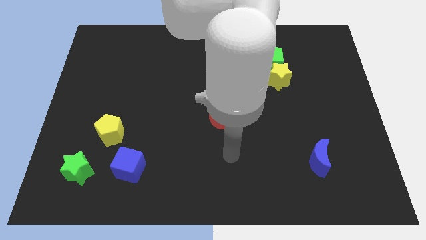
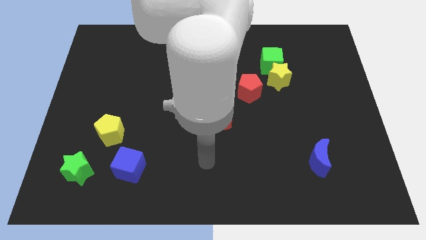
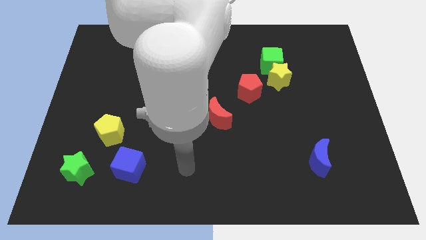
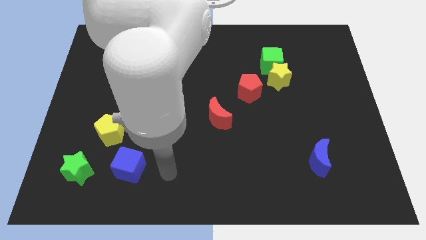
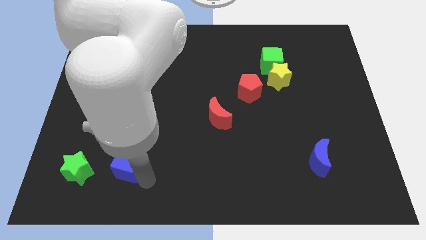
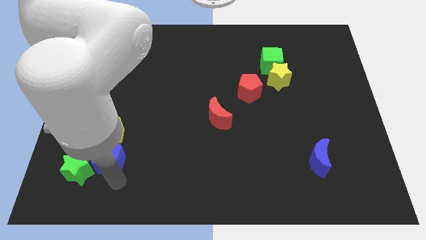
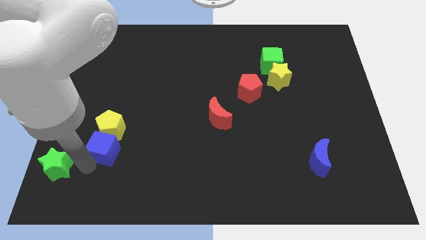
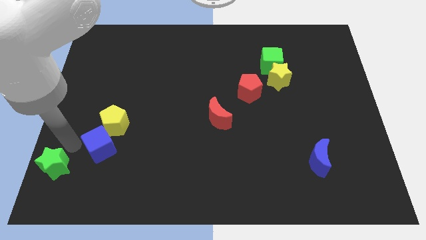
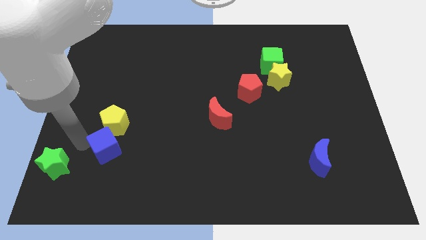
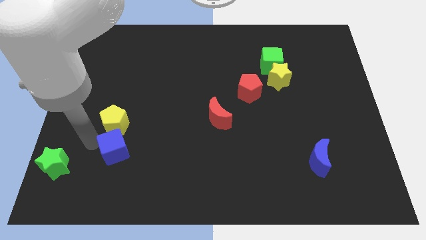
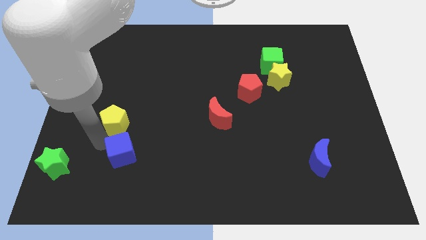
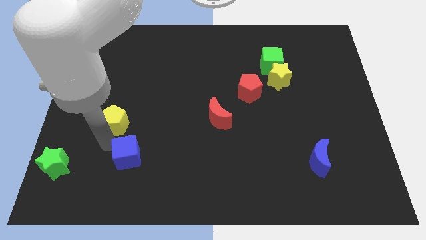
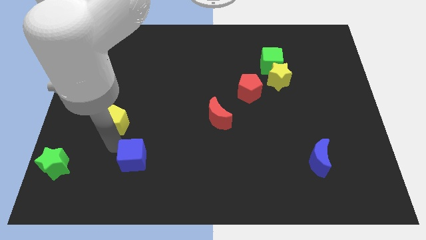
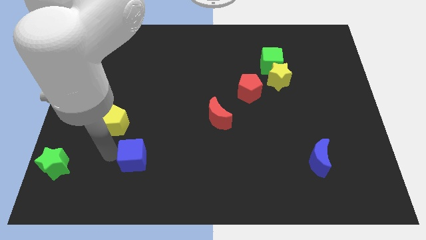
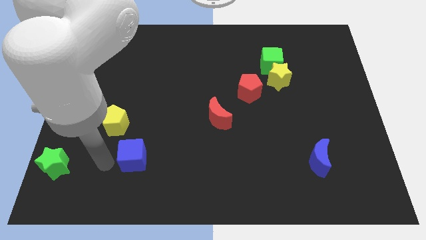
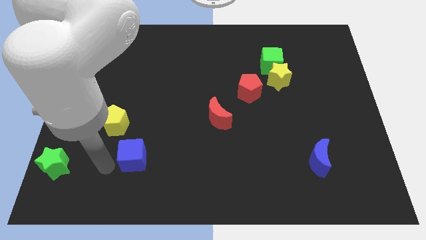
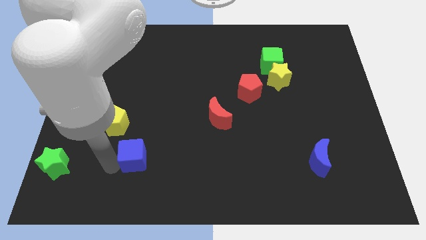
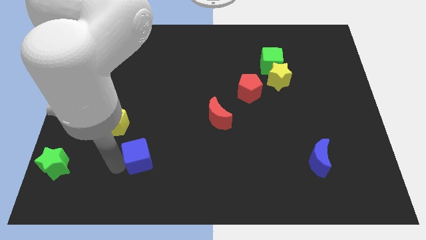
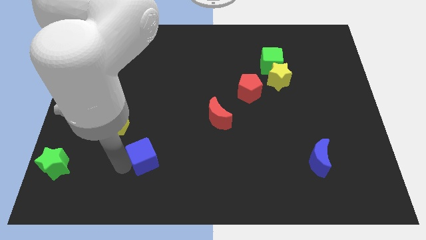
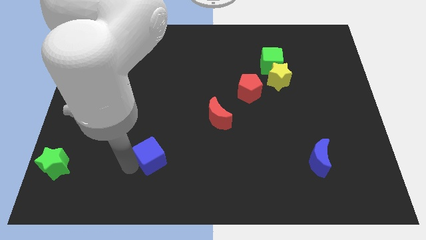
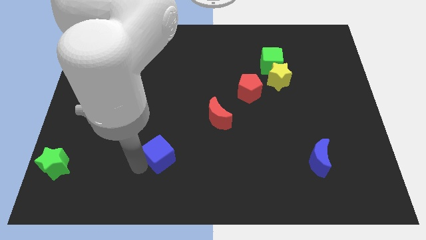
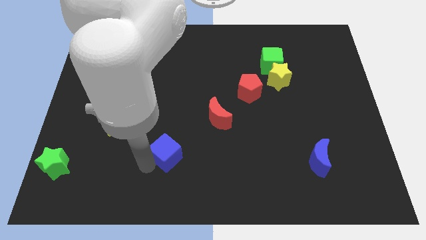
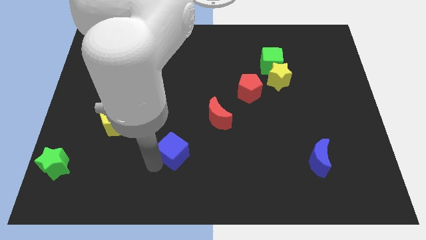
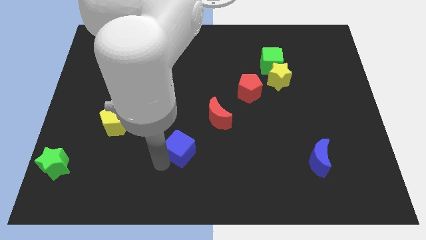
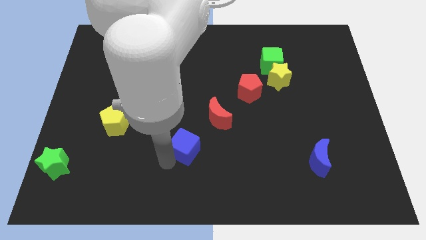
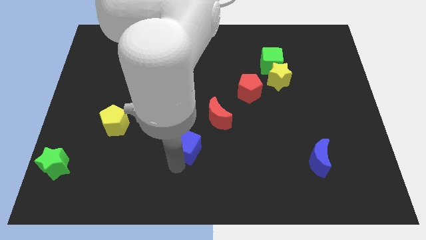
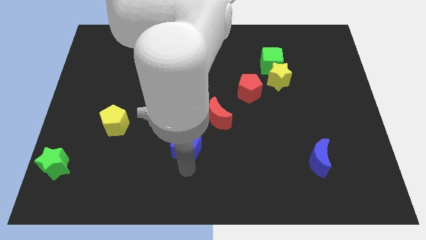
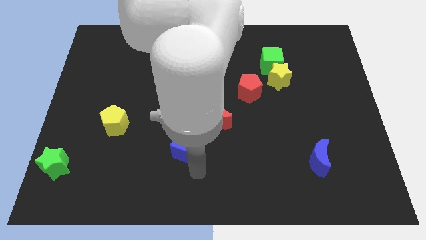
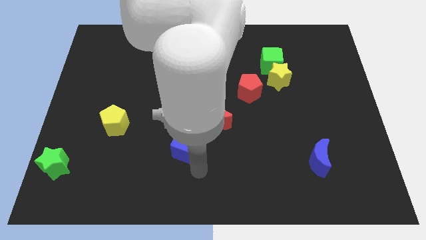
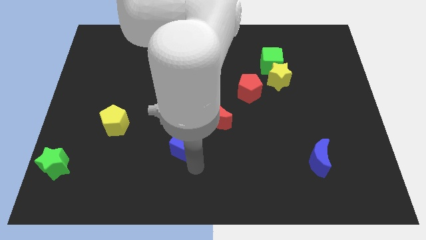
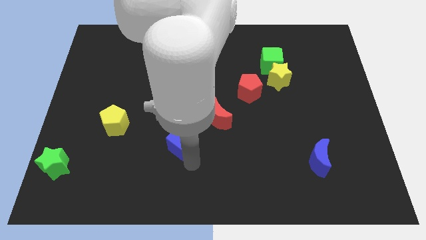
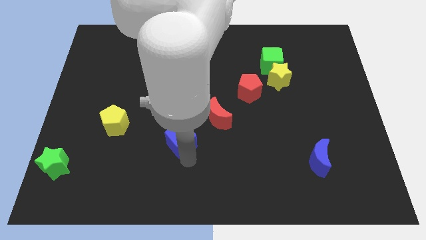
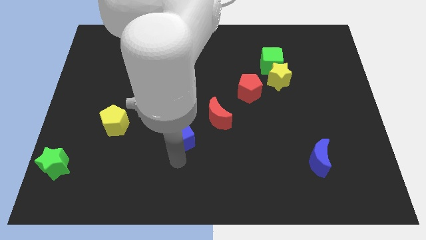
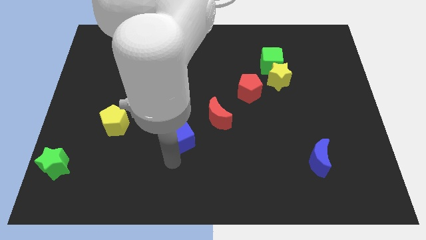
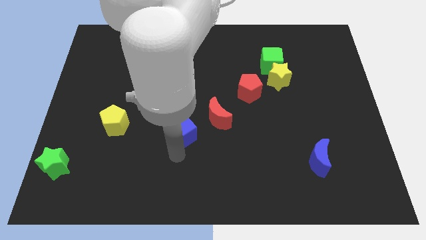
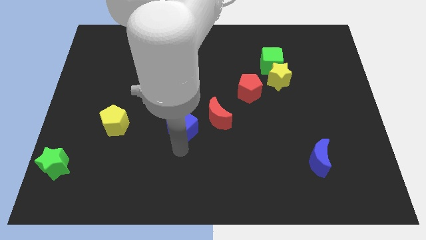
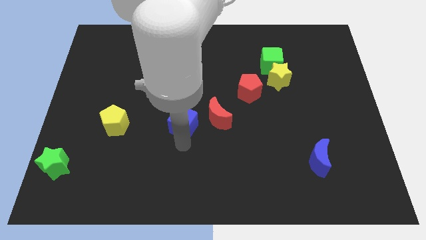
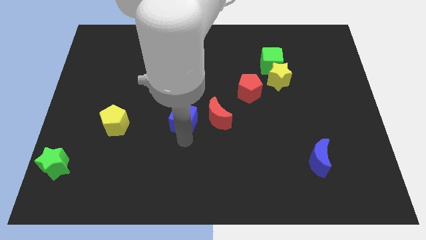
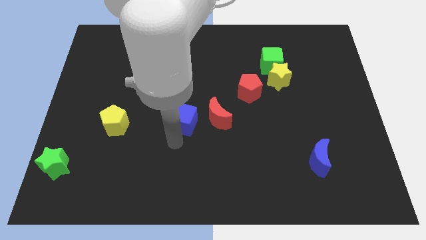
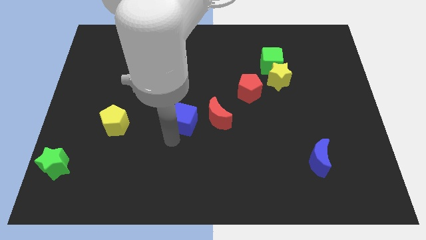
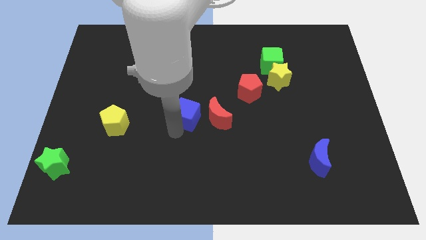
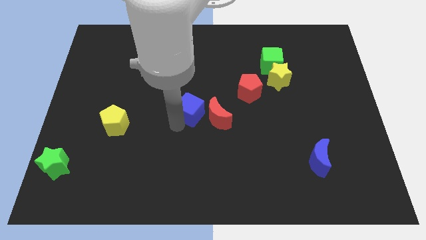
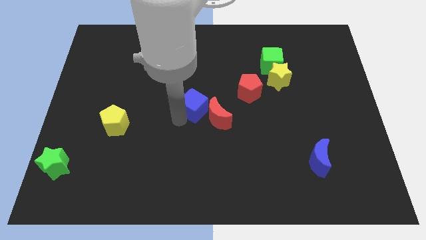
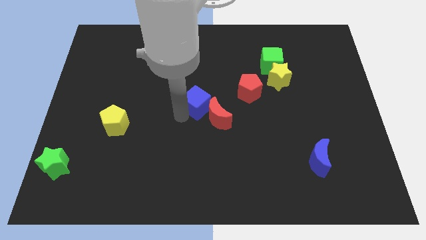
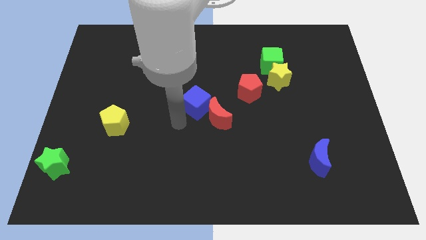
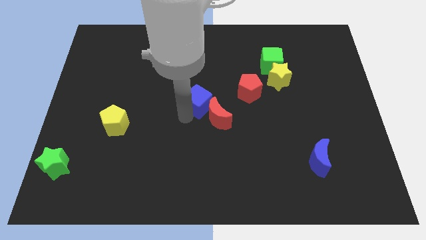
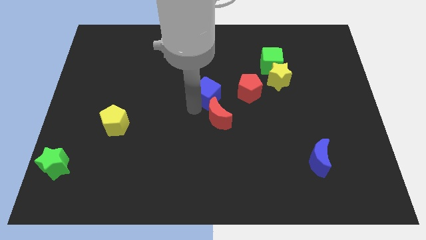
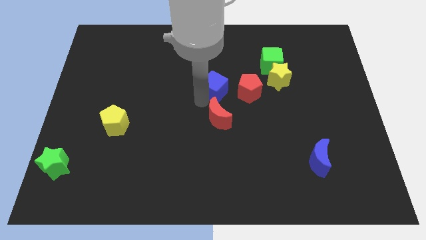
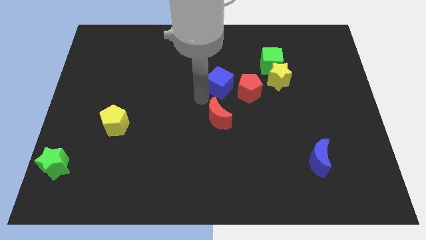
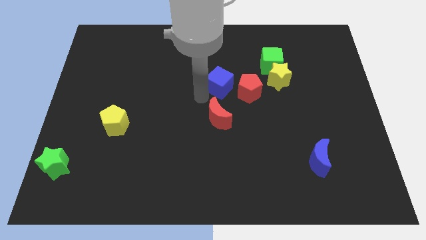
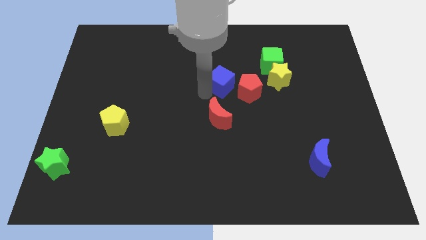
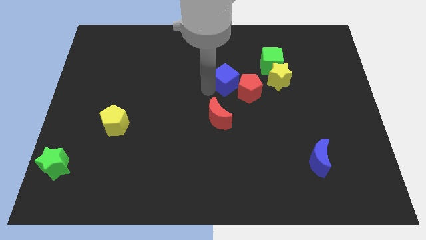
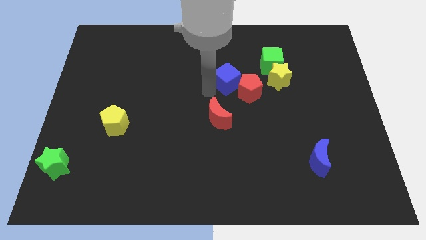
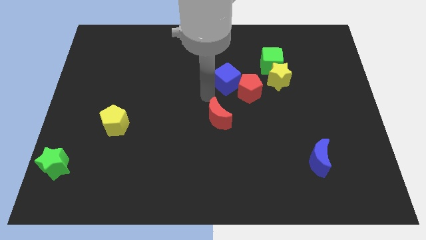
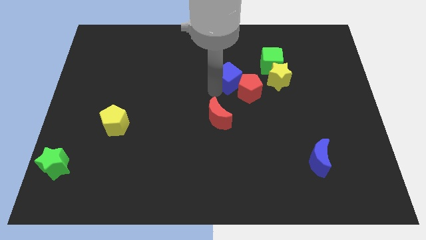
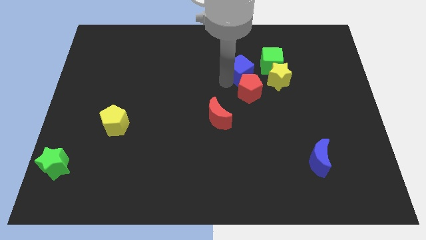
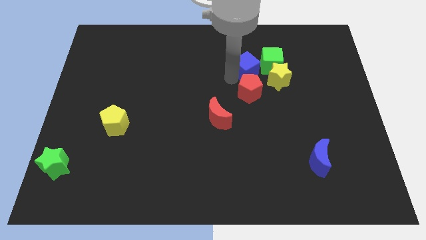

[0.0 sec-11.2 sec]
push the blue cube diagonally up and to the left of the yellow star

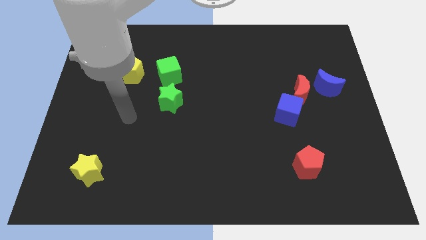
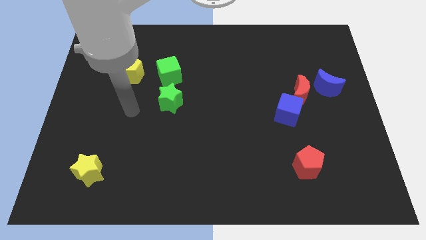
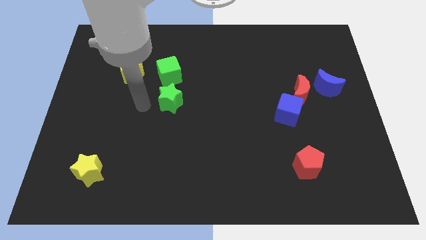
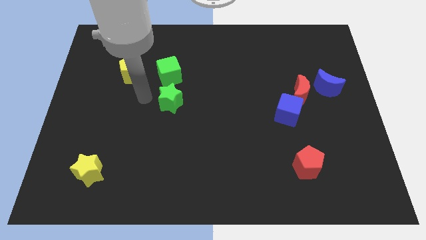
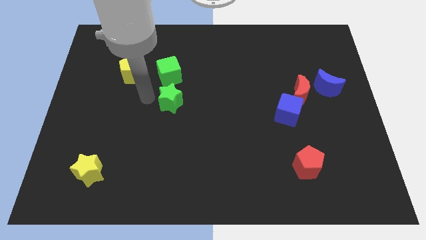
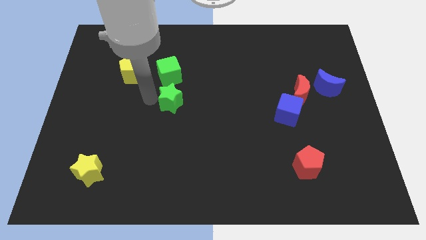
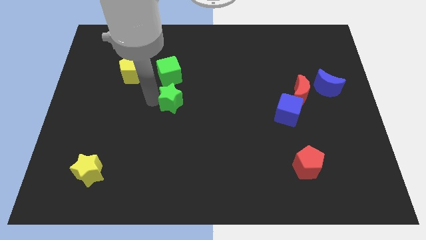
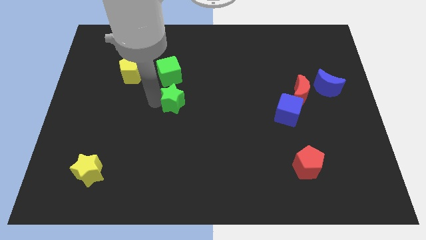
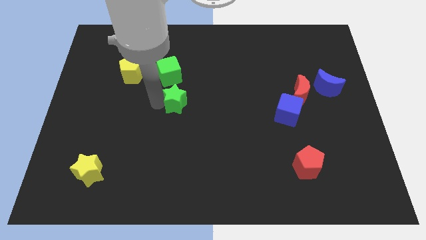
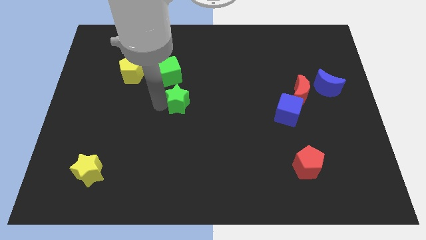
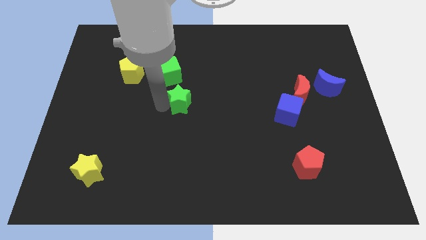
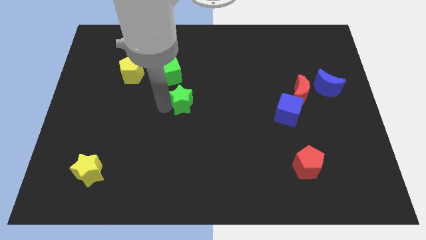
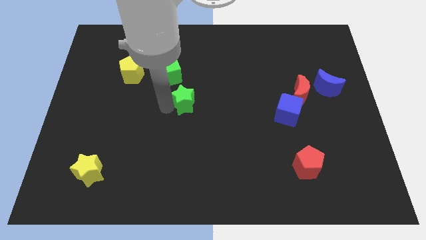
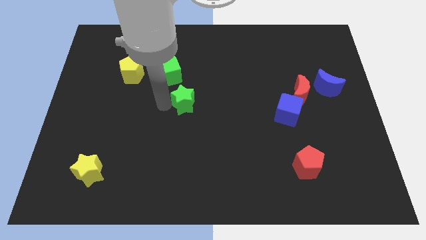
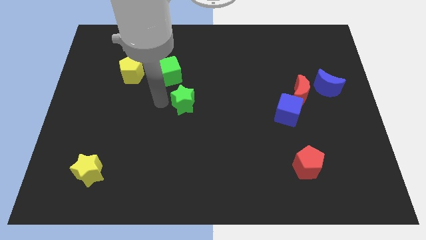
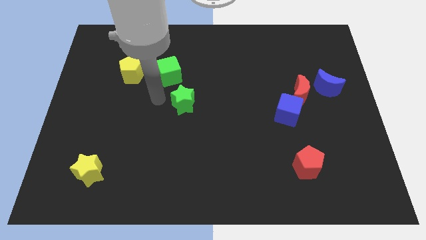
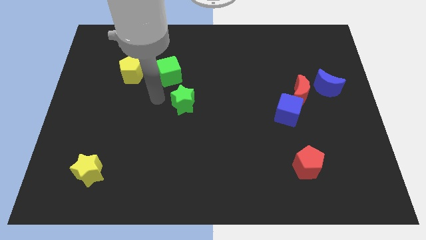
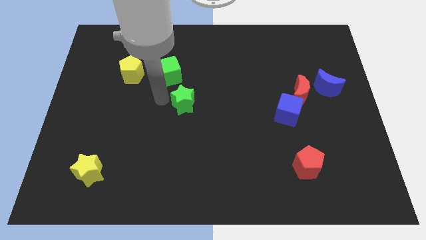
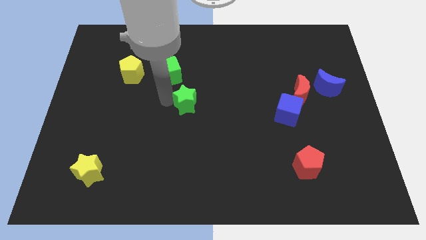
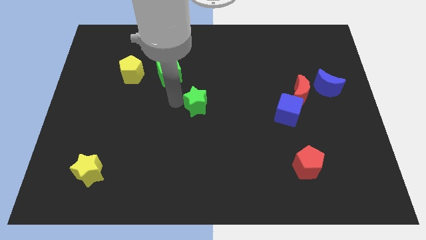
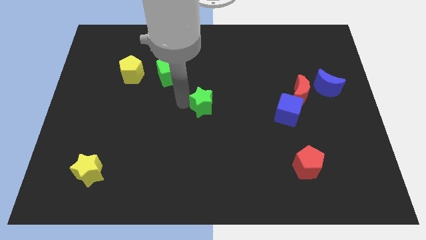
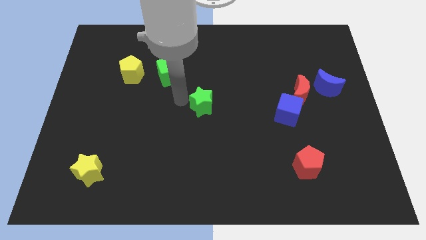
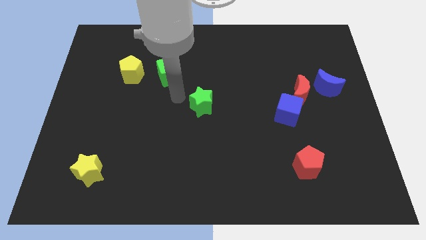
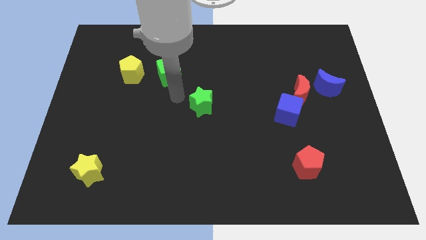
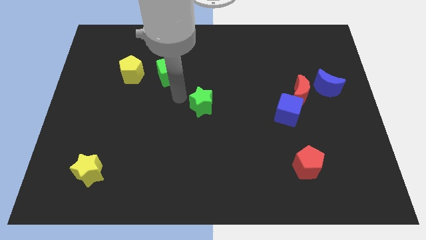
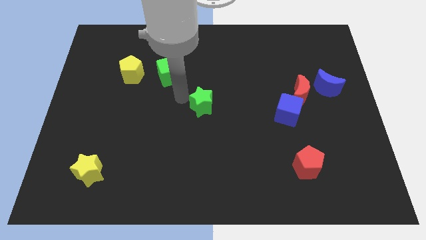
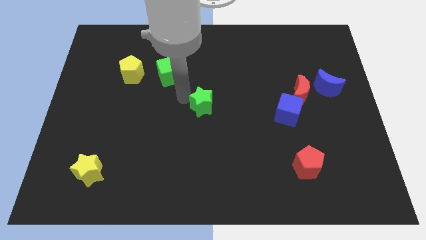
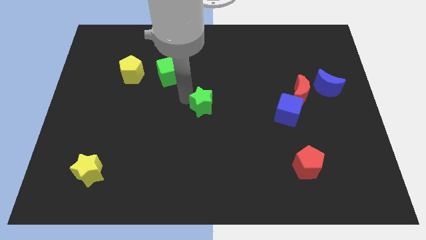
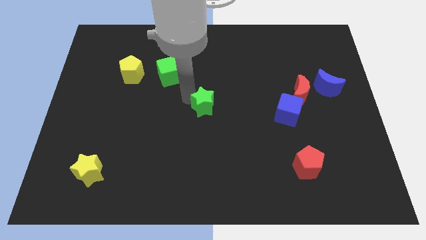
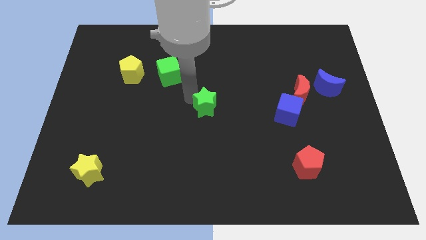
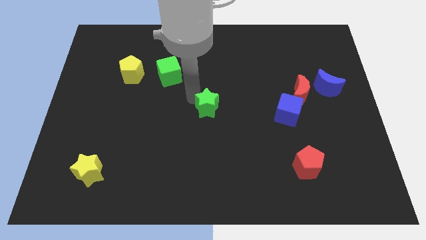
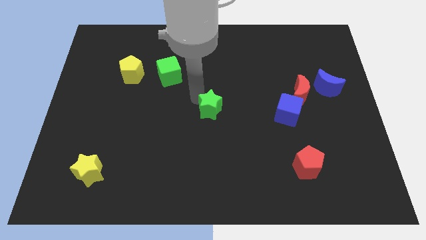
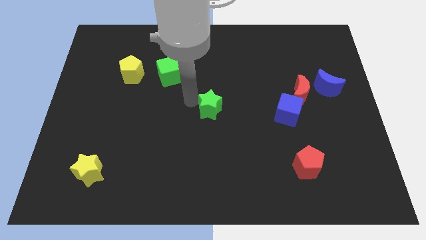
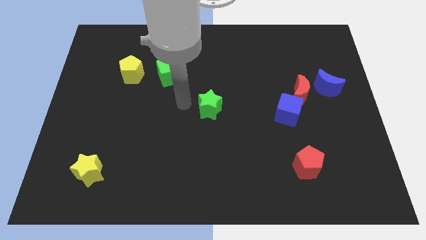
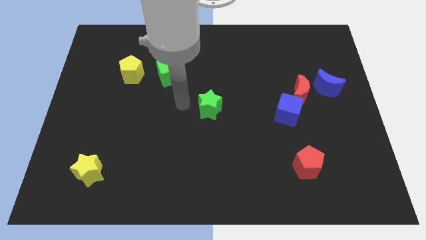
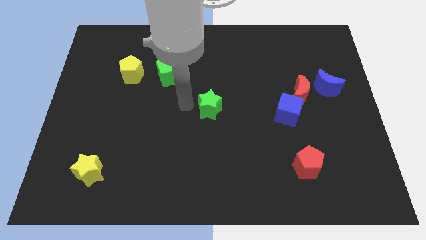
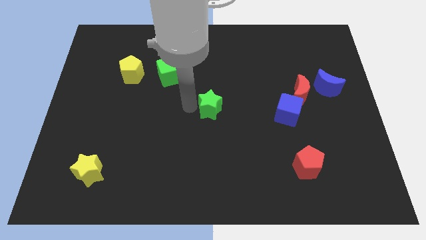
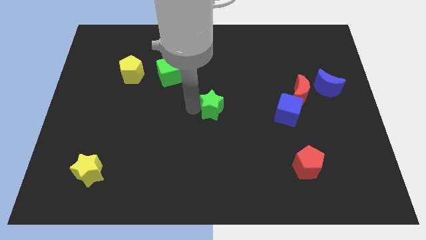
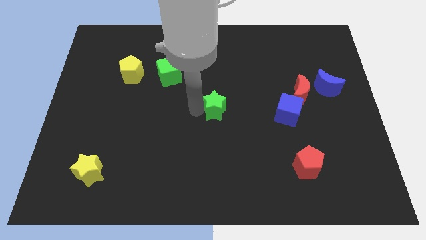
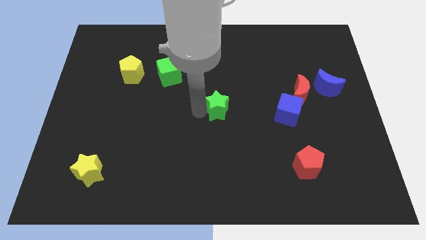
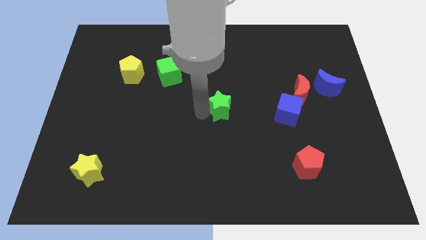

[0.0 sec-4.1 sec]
push the green star just left of the blue cube
